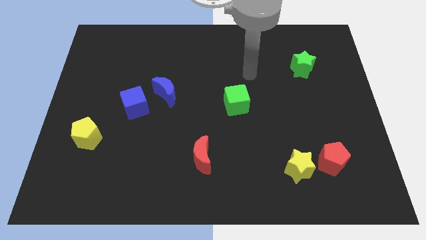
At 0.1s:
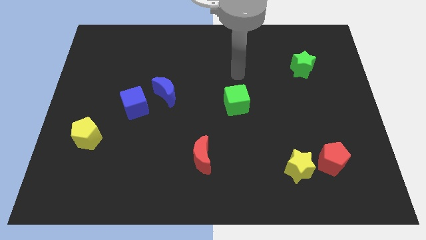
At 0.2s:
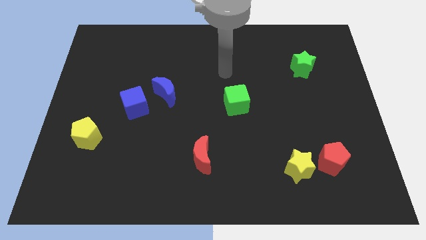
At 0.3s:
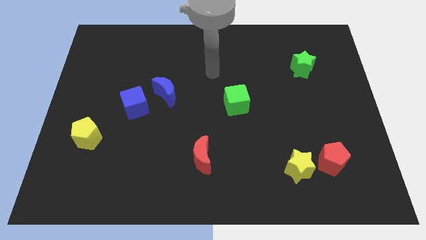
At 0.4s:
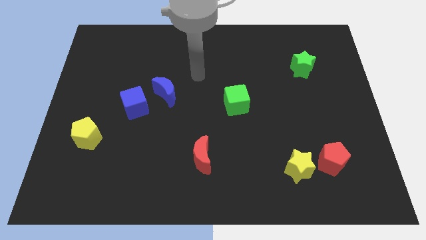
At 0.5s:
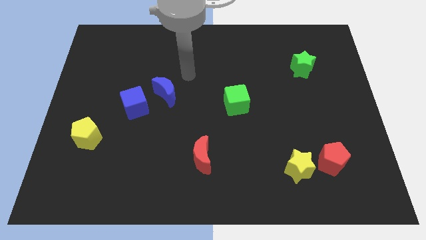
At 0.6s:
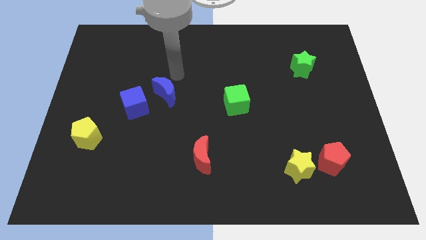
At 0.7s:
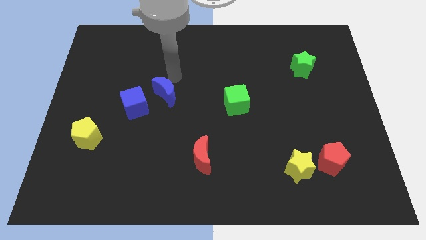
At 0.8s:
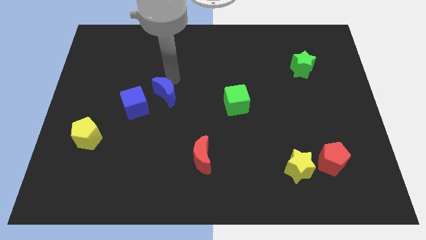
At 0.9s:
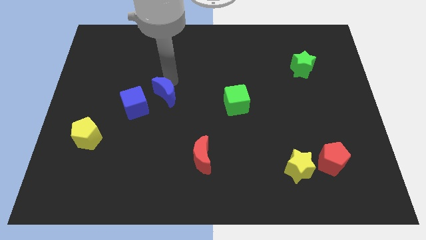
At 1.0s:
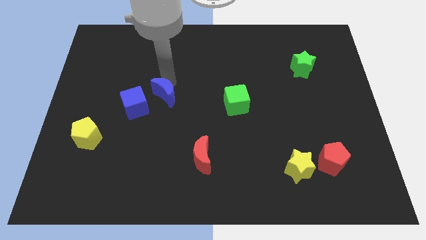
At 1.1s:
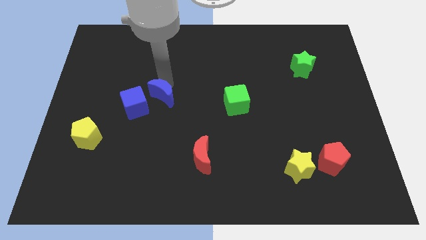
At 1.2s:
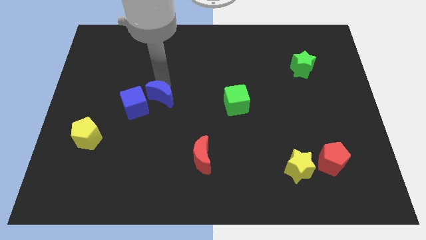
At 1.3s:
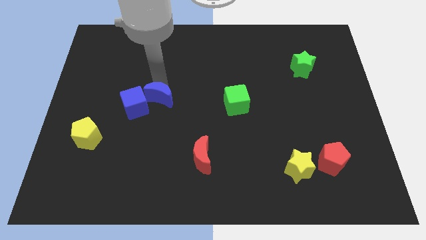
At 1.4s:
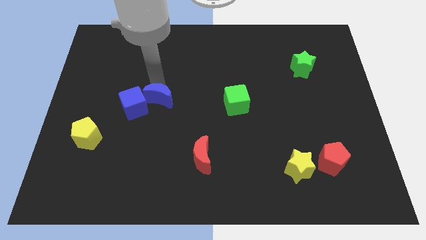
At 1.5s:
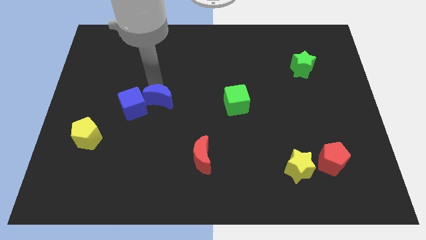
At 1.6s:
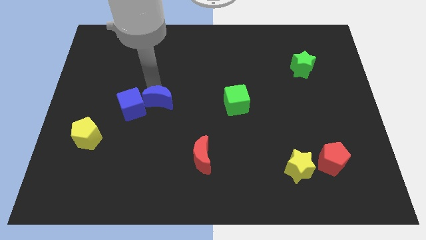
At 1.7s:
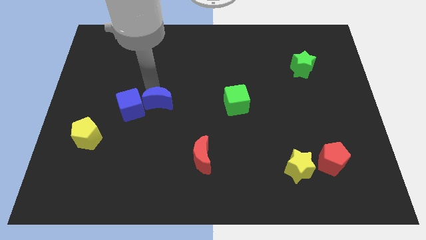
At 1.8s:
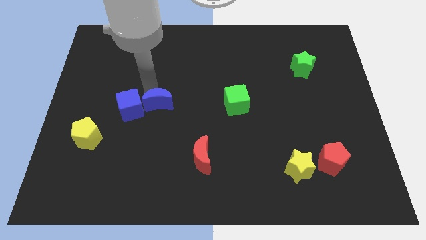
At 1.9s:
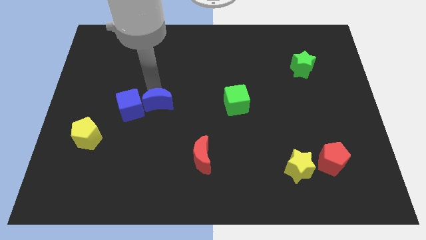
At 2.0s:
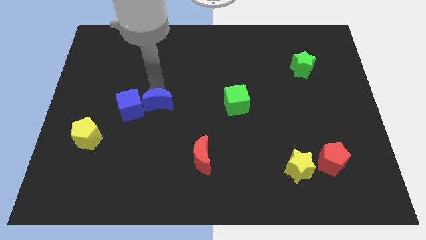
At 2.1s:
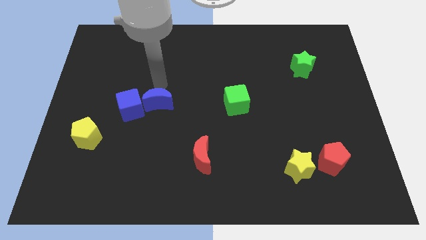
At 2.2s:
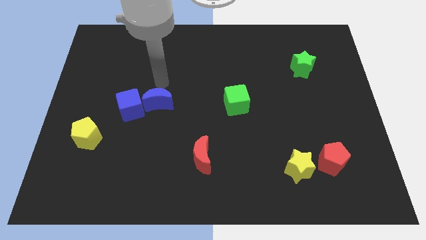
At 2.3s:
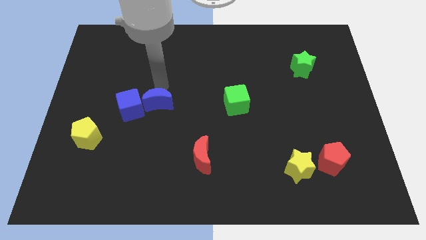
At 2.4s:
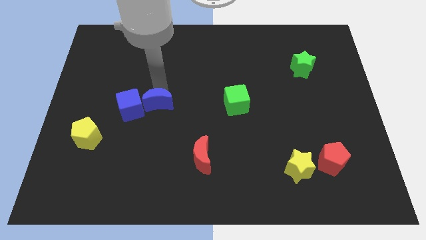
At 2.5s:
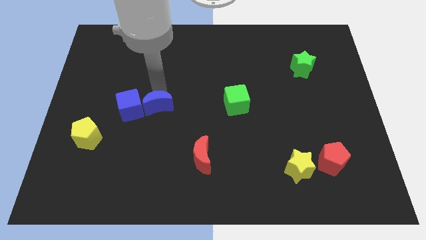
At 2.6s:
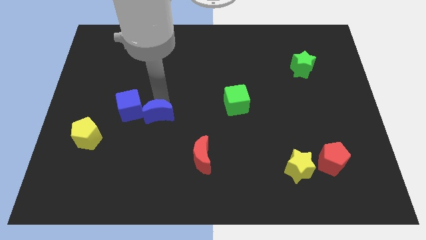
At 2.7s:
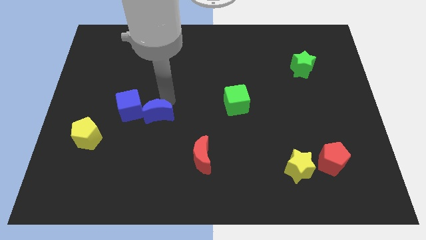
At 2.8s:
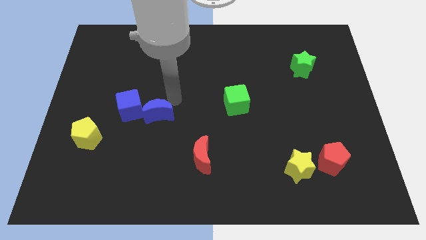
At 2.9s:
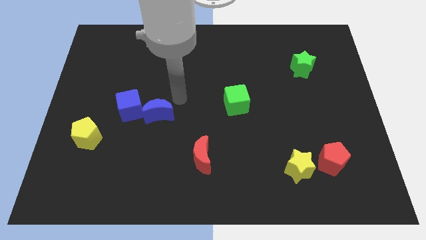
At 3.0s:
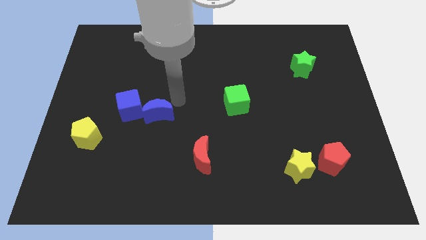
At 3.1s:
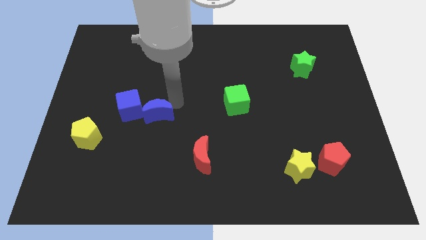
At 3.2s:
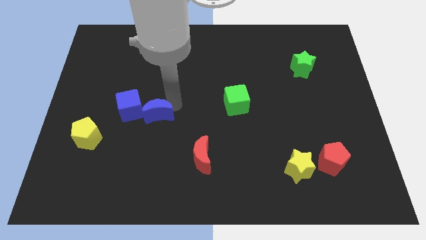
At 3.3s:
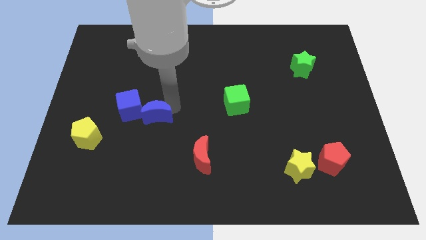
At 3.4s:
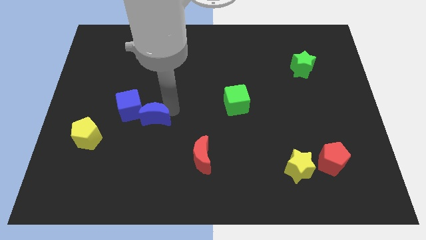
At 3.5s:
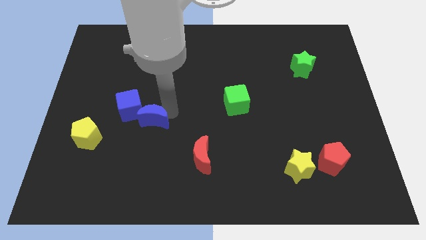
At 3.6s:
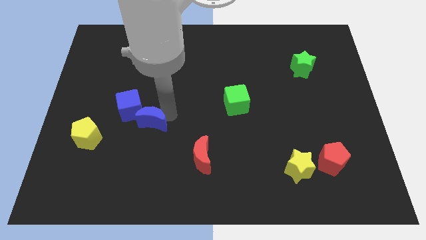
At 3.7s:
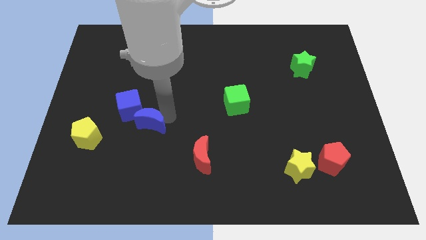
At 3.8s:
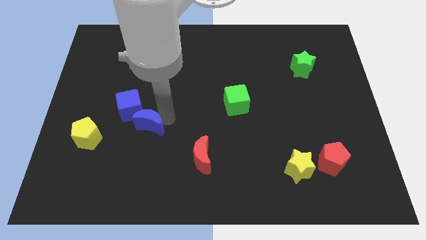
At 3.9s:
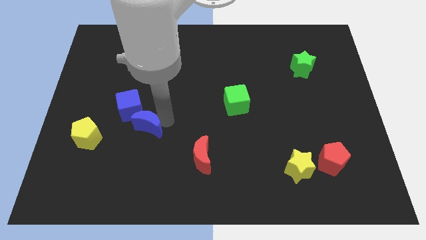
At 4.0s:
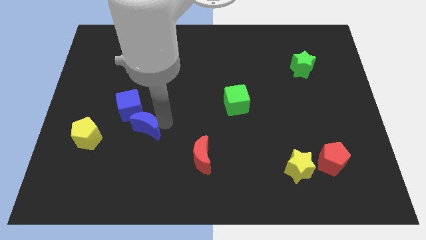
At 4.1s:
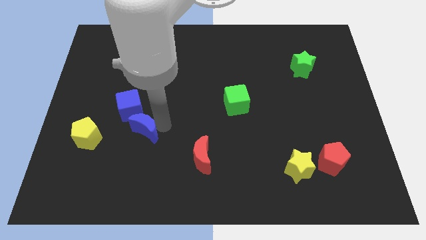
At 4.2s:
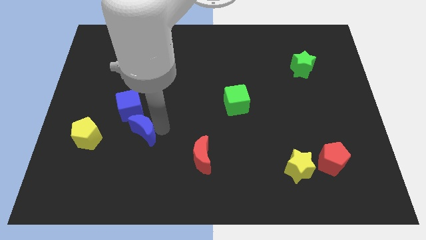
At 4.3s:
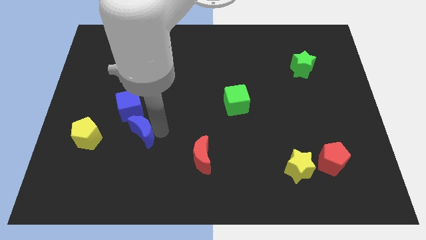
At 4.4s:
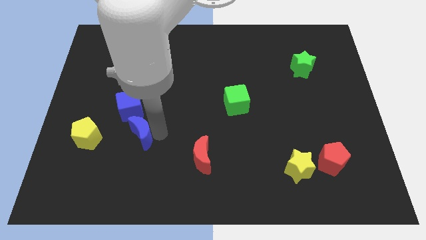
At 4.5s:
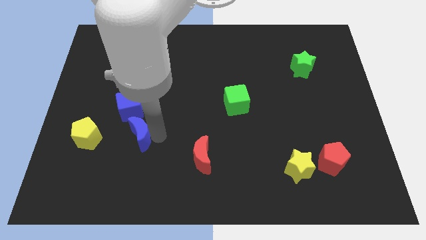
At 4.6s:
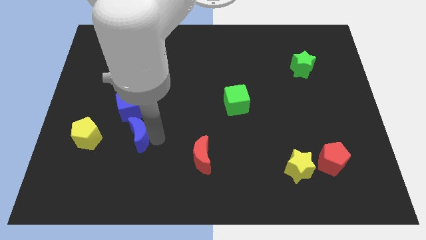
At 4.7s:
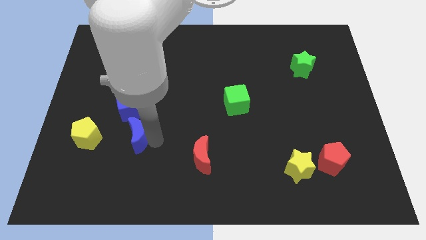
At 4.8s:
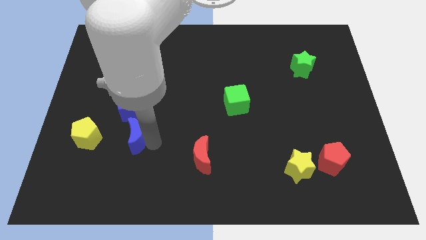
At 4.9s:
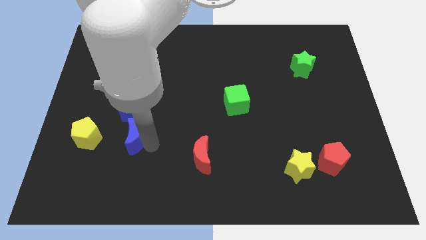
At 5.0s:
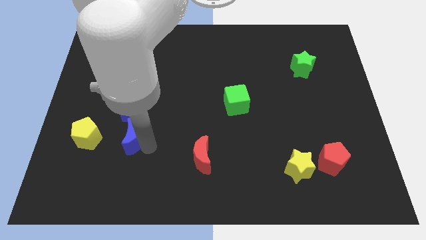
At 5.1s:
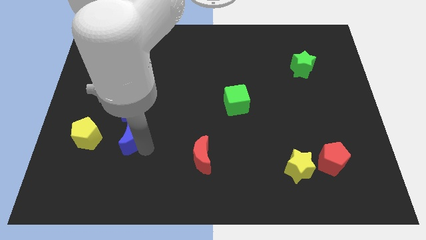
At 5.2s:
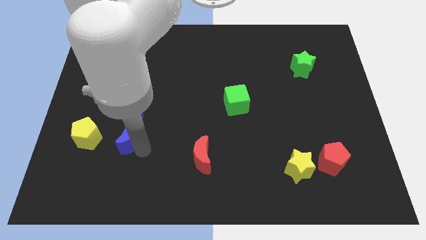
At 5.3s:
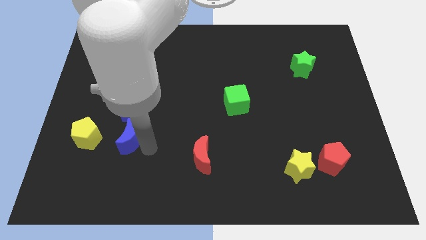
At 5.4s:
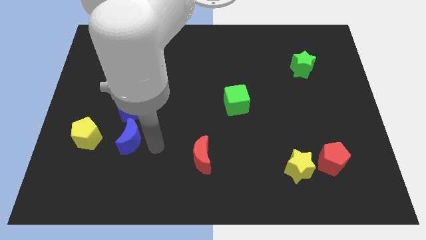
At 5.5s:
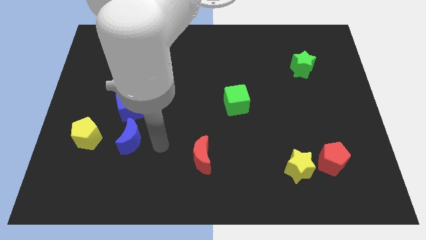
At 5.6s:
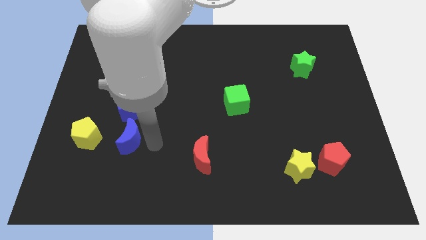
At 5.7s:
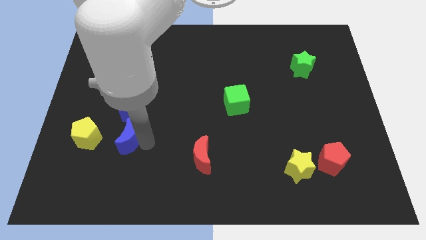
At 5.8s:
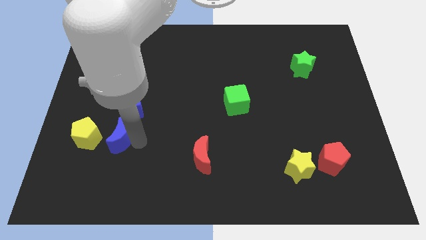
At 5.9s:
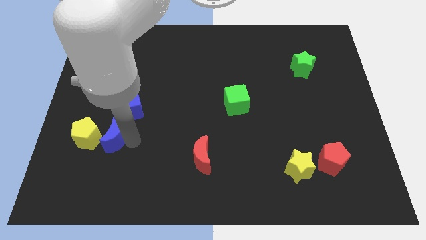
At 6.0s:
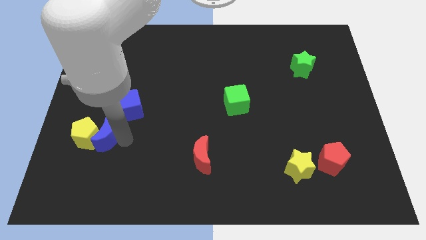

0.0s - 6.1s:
put the blue moon next to the yellow pentagon

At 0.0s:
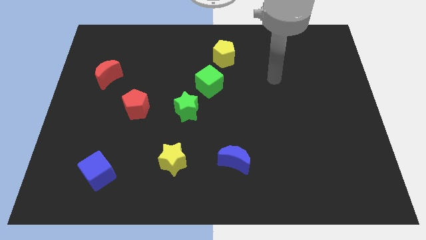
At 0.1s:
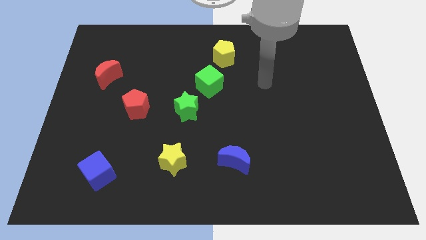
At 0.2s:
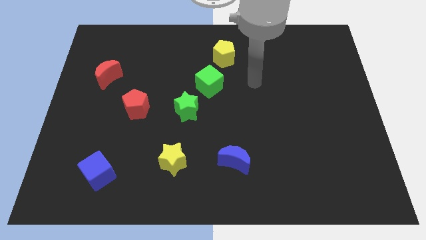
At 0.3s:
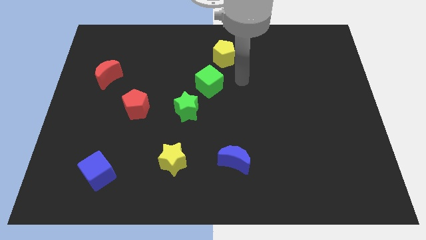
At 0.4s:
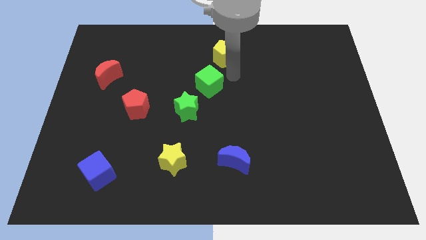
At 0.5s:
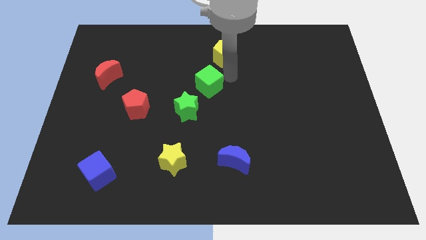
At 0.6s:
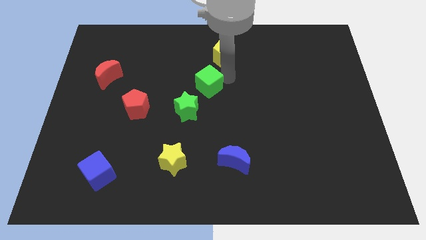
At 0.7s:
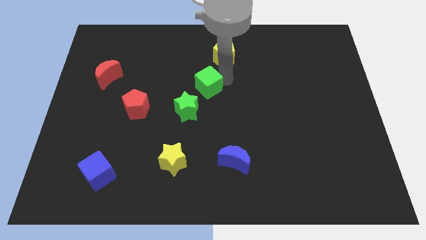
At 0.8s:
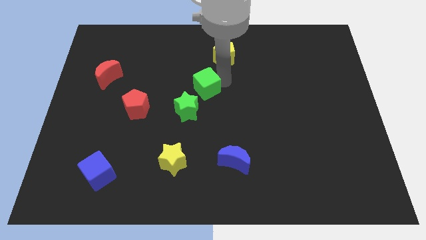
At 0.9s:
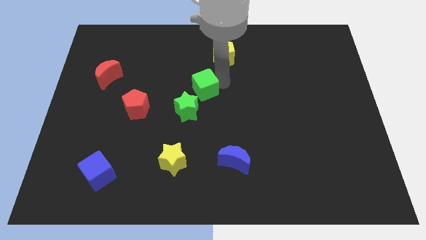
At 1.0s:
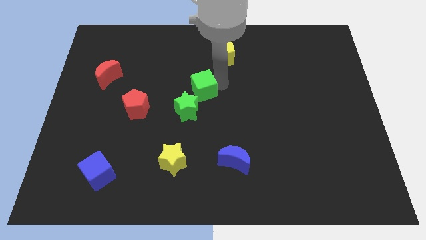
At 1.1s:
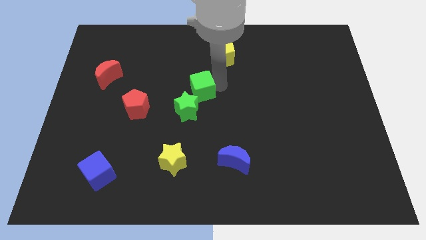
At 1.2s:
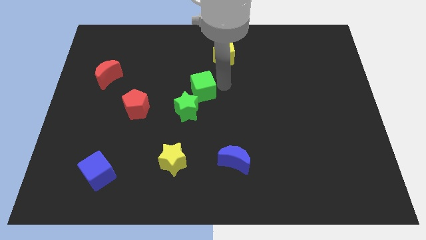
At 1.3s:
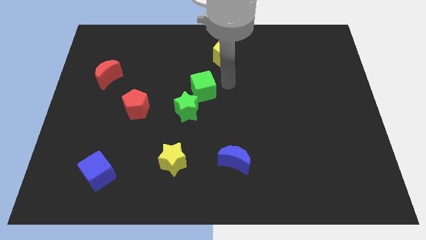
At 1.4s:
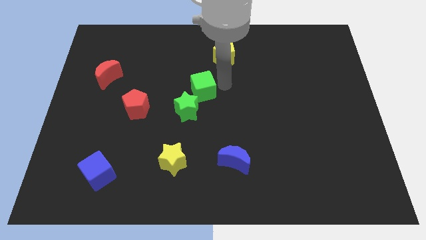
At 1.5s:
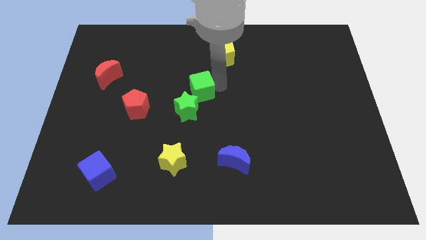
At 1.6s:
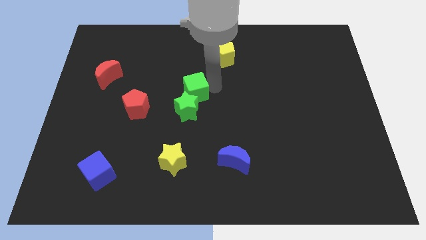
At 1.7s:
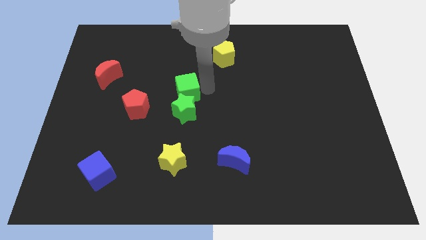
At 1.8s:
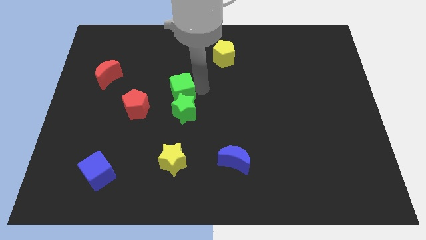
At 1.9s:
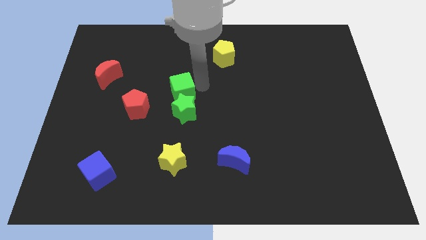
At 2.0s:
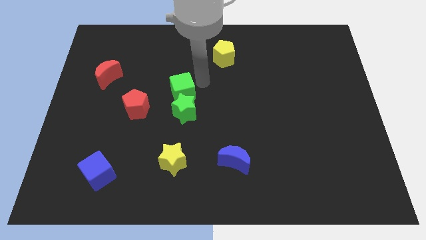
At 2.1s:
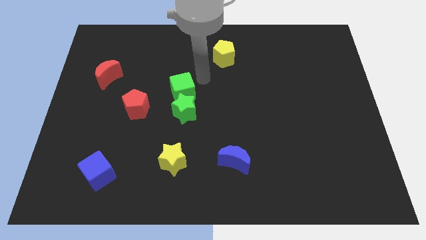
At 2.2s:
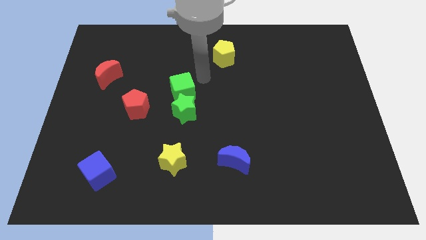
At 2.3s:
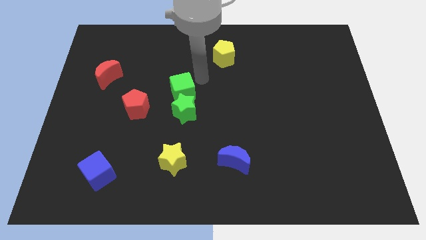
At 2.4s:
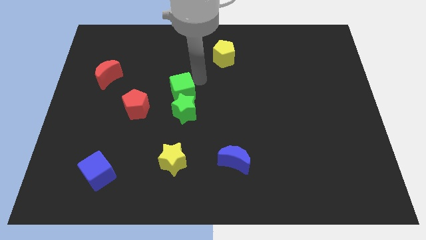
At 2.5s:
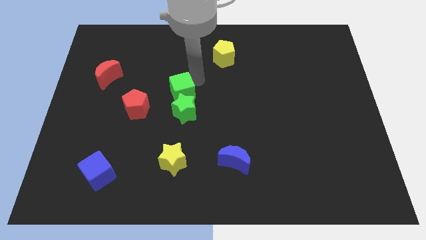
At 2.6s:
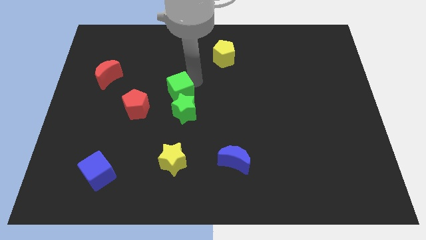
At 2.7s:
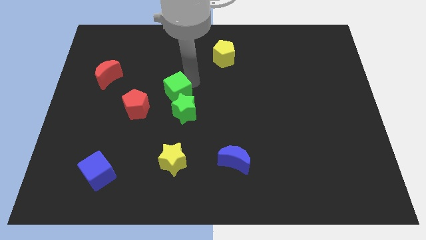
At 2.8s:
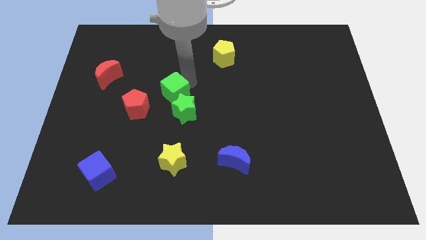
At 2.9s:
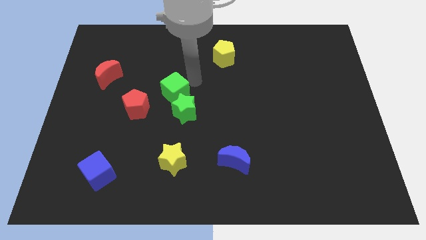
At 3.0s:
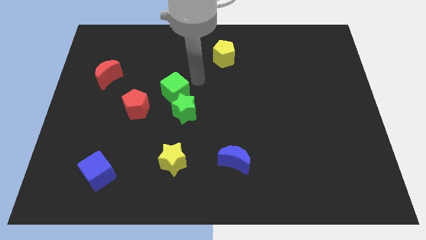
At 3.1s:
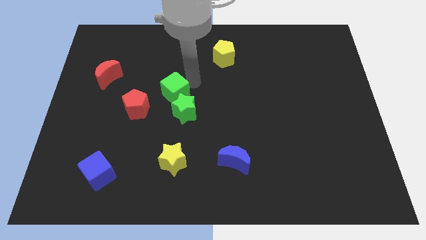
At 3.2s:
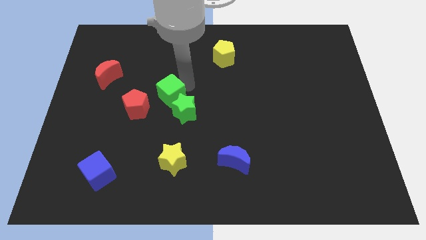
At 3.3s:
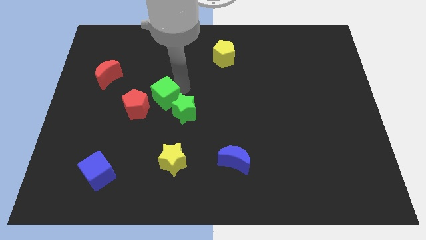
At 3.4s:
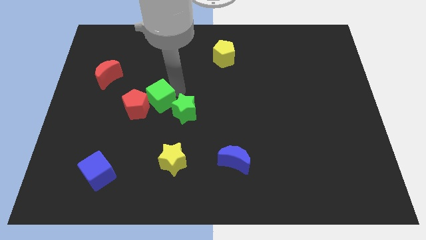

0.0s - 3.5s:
slide the green cube close to the red pentagon
